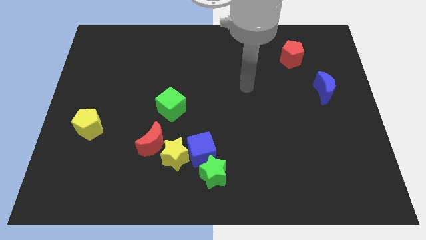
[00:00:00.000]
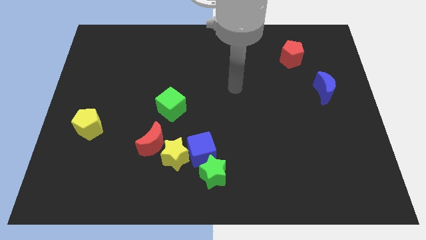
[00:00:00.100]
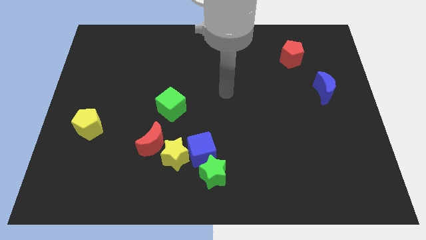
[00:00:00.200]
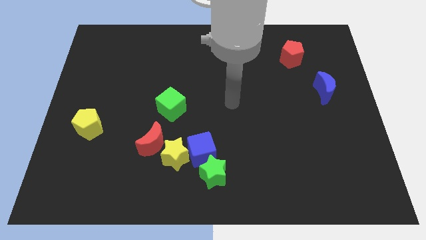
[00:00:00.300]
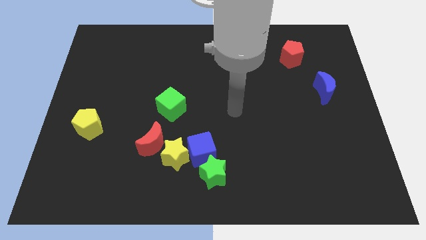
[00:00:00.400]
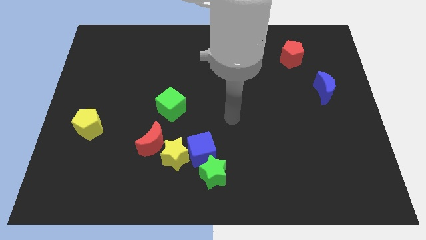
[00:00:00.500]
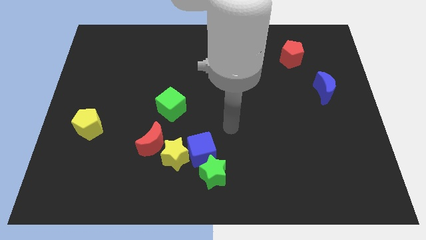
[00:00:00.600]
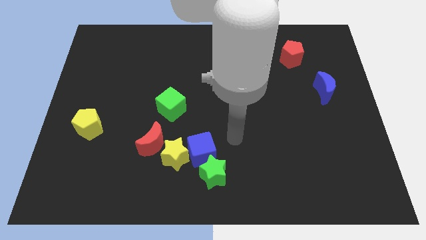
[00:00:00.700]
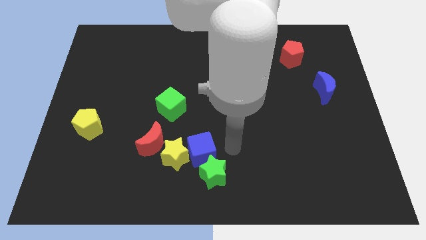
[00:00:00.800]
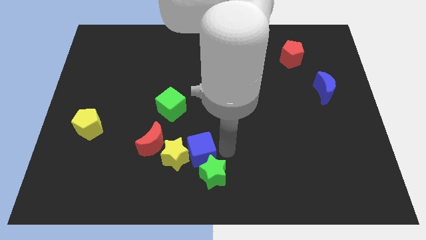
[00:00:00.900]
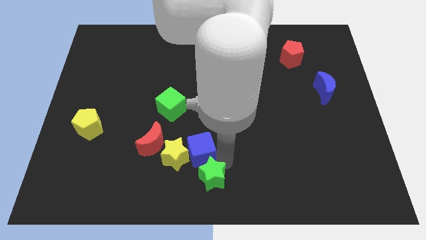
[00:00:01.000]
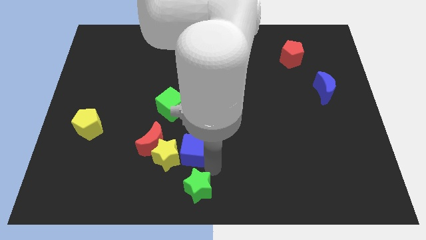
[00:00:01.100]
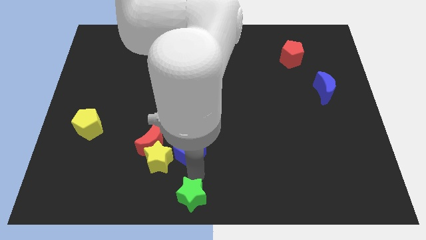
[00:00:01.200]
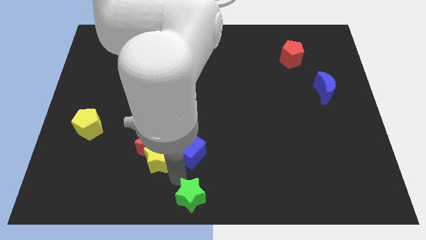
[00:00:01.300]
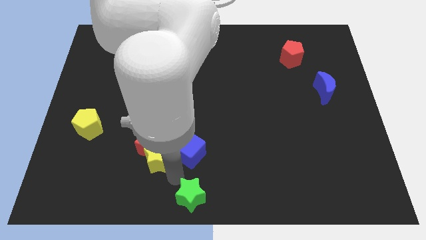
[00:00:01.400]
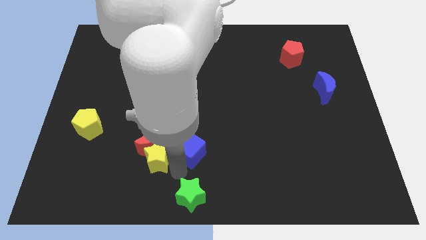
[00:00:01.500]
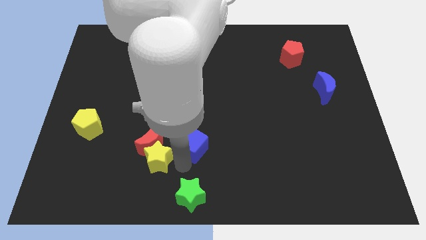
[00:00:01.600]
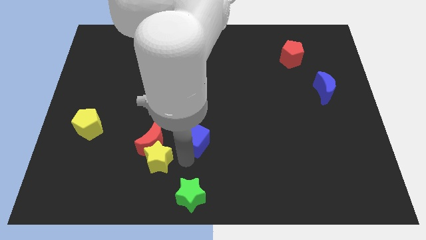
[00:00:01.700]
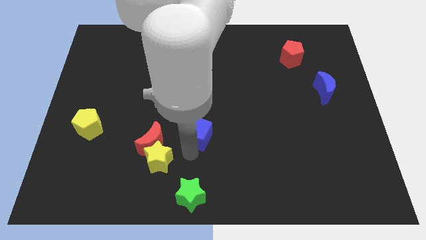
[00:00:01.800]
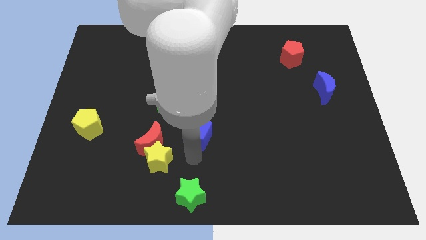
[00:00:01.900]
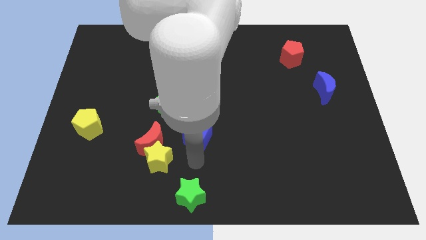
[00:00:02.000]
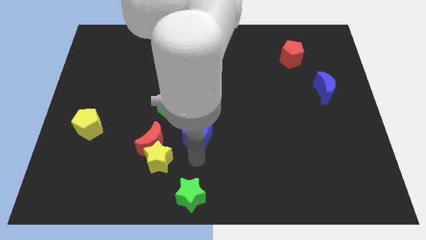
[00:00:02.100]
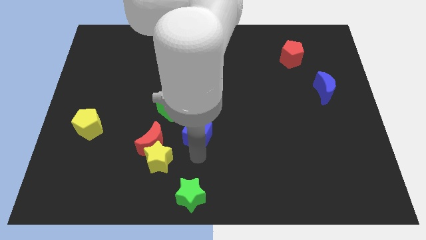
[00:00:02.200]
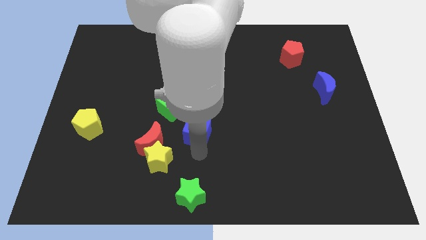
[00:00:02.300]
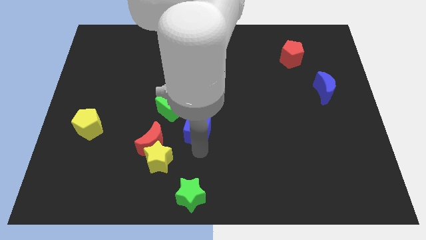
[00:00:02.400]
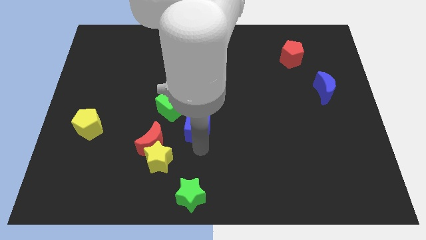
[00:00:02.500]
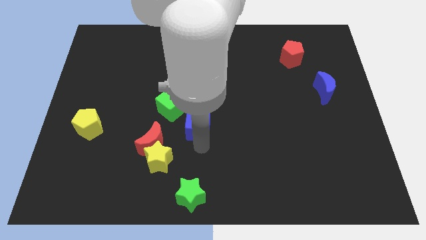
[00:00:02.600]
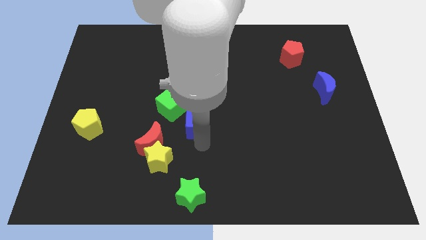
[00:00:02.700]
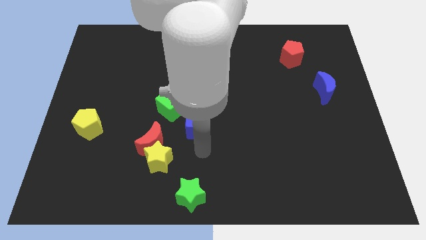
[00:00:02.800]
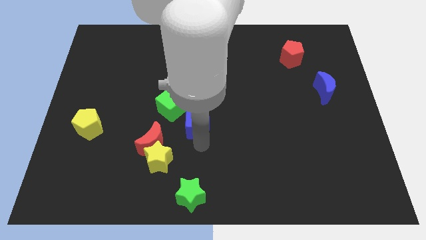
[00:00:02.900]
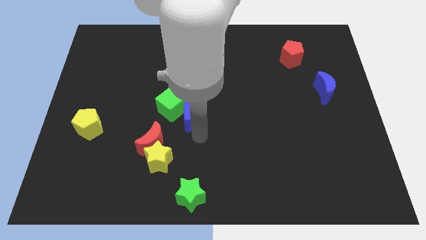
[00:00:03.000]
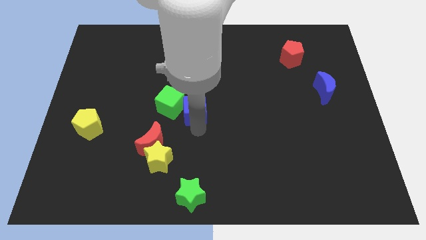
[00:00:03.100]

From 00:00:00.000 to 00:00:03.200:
slightly push the blue cube diagonally upwards and to the left

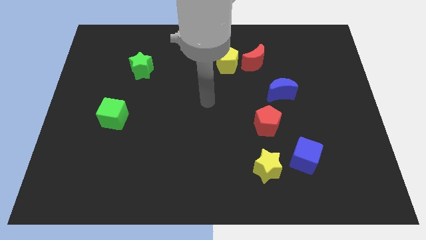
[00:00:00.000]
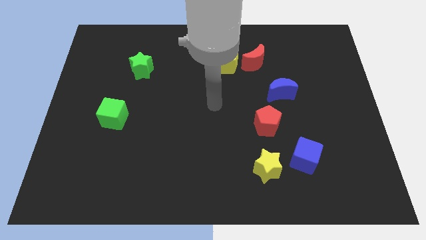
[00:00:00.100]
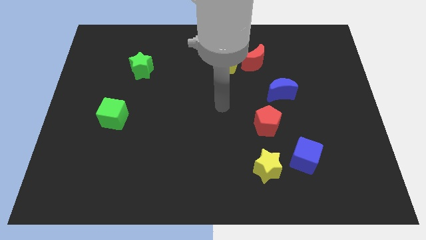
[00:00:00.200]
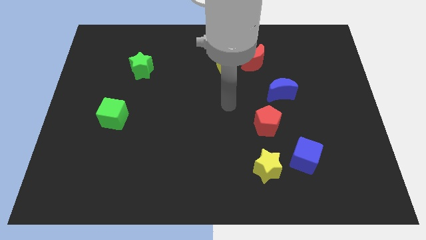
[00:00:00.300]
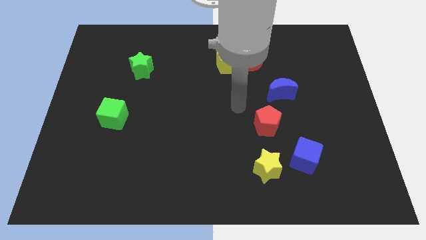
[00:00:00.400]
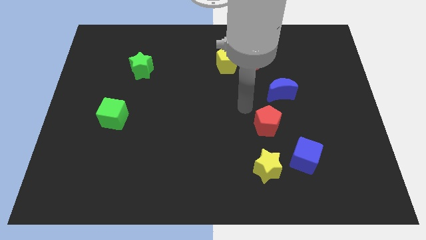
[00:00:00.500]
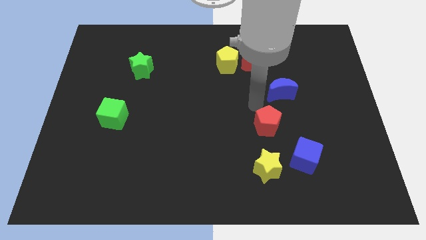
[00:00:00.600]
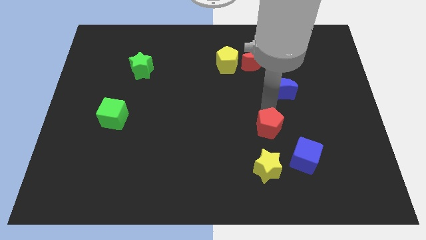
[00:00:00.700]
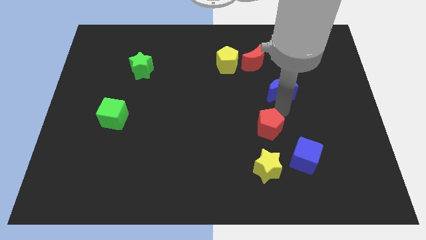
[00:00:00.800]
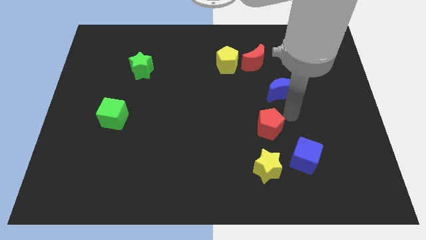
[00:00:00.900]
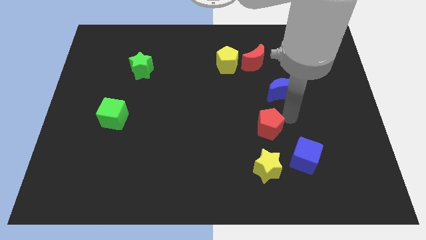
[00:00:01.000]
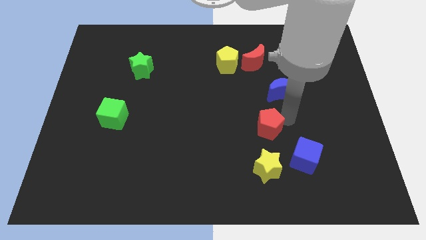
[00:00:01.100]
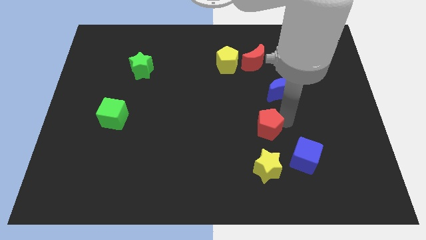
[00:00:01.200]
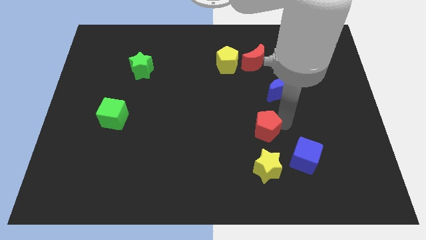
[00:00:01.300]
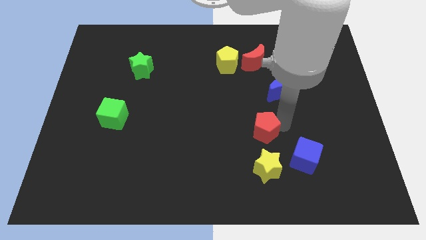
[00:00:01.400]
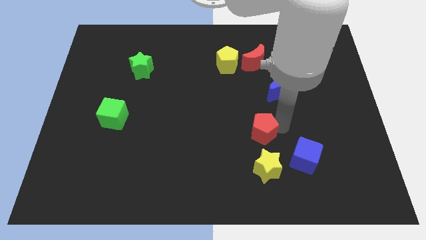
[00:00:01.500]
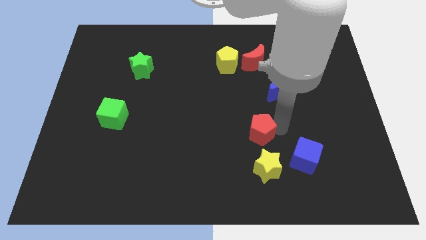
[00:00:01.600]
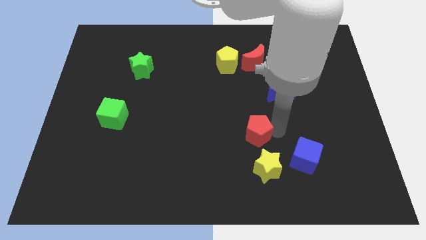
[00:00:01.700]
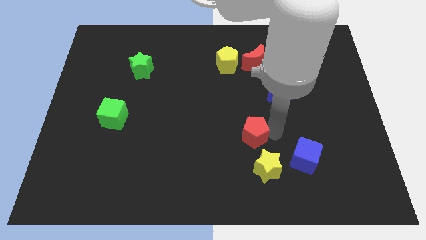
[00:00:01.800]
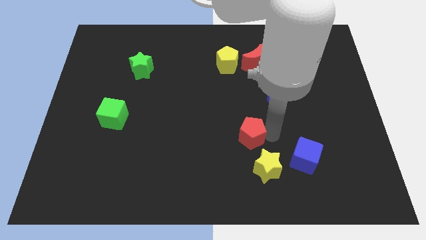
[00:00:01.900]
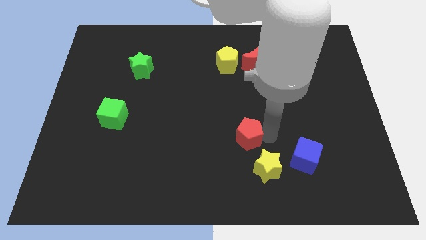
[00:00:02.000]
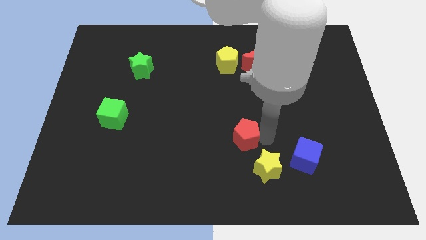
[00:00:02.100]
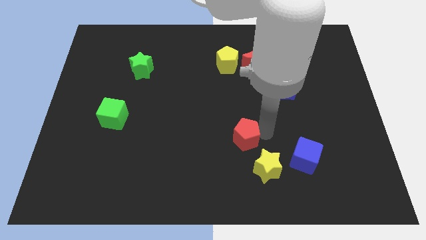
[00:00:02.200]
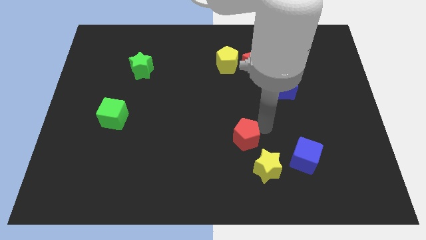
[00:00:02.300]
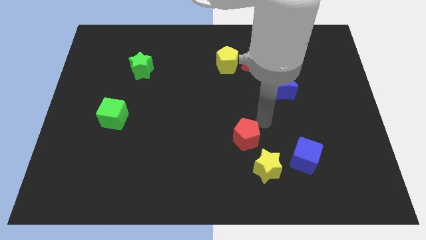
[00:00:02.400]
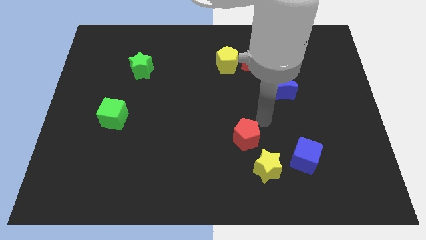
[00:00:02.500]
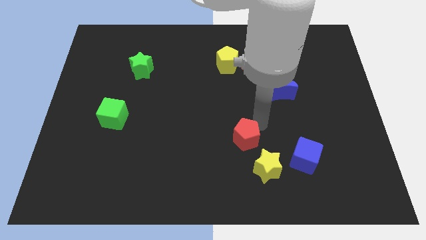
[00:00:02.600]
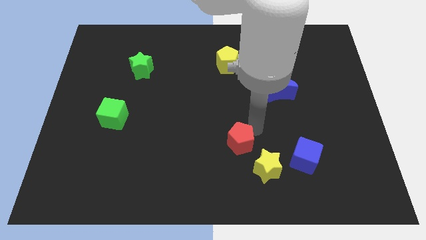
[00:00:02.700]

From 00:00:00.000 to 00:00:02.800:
slide the red pentagon a little down and left diagonally

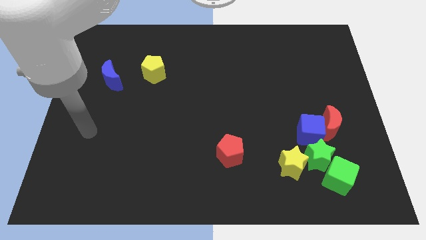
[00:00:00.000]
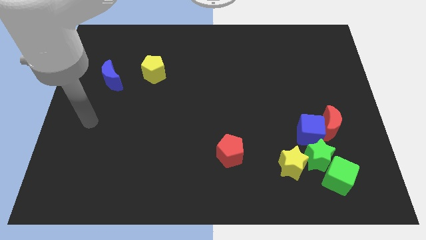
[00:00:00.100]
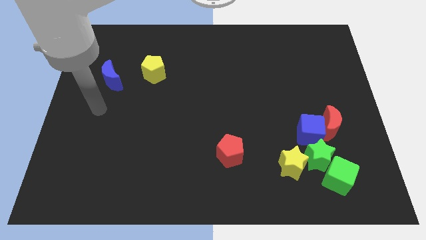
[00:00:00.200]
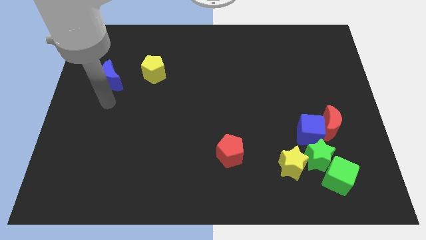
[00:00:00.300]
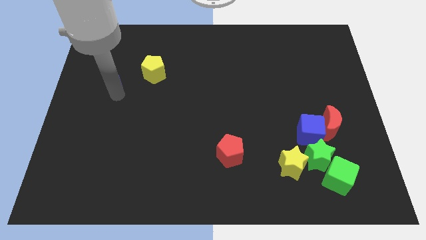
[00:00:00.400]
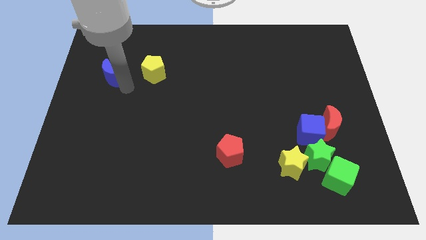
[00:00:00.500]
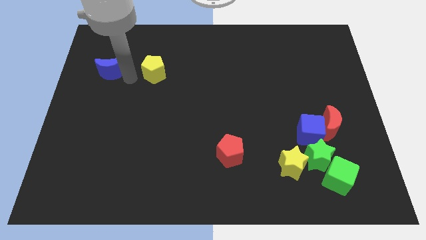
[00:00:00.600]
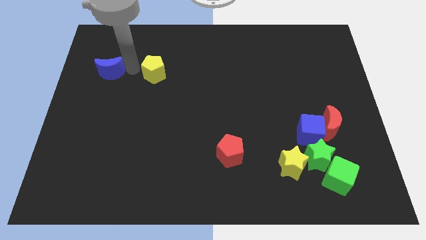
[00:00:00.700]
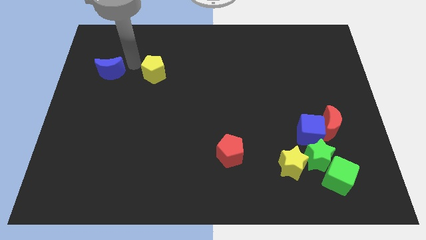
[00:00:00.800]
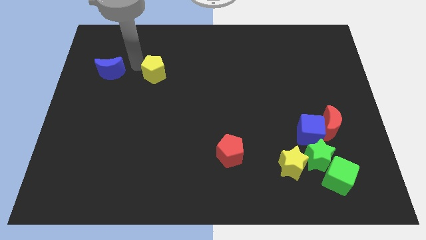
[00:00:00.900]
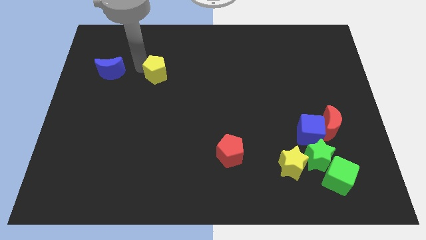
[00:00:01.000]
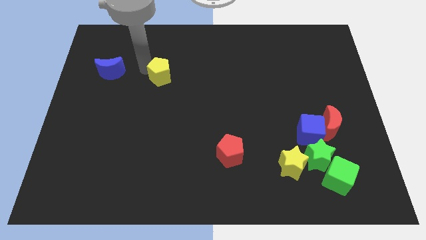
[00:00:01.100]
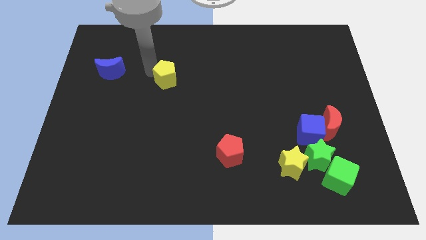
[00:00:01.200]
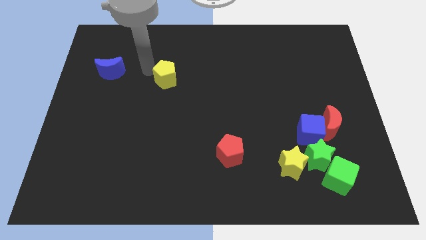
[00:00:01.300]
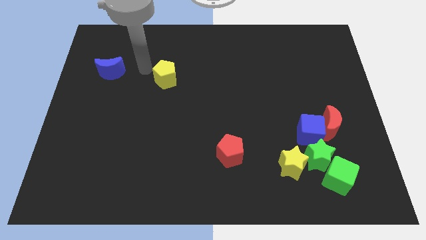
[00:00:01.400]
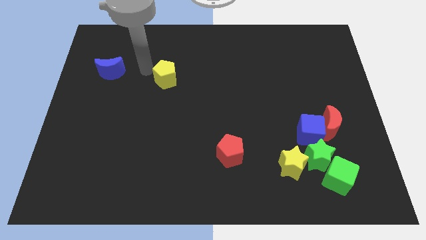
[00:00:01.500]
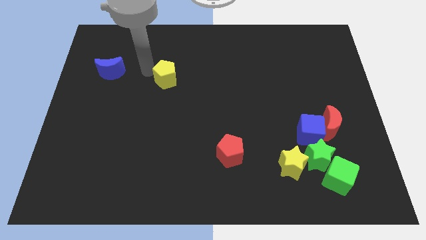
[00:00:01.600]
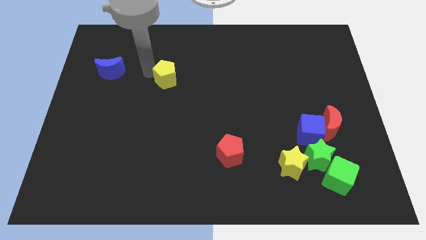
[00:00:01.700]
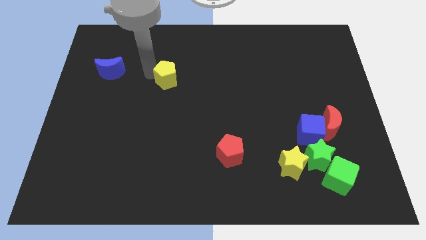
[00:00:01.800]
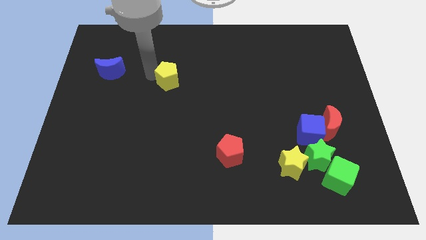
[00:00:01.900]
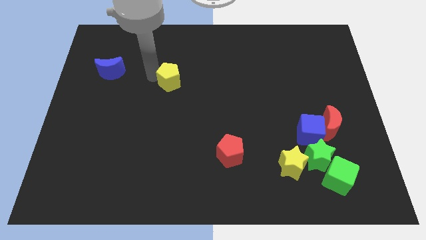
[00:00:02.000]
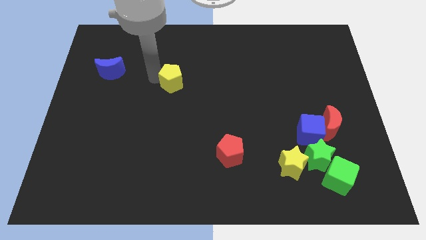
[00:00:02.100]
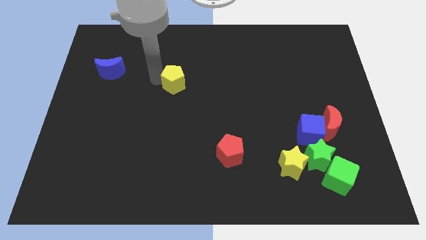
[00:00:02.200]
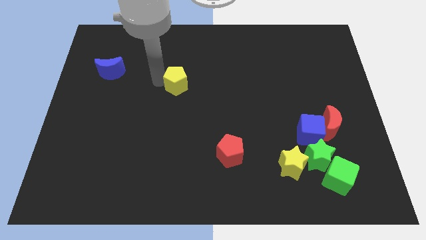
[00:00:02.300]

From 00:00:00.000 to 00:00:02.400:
push the yellow pentagon downwards and then to the right somewhat
